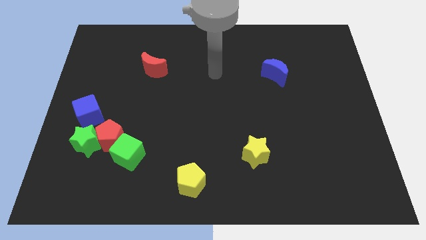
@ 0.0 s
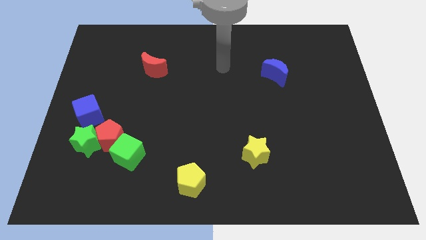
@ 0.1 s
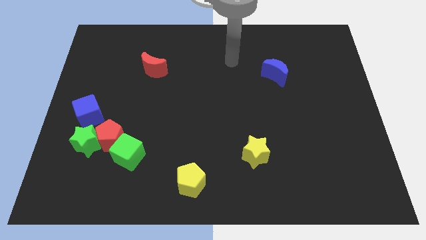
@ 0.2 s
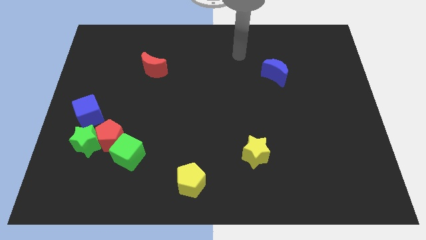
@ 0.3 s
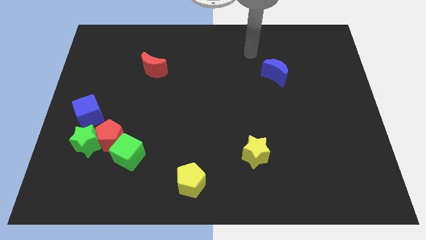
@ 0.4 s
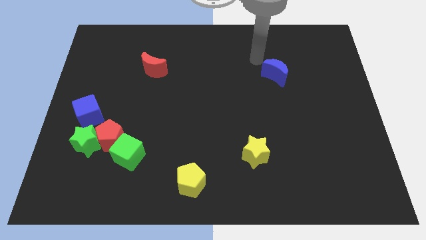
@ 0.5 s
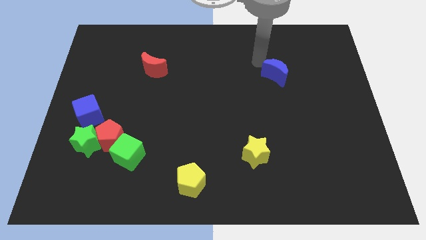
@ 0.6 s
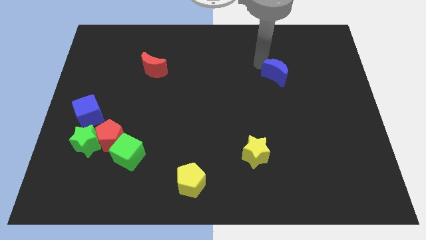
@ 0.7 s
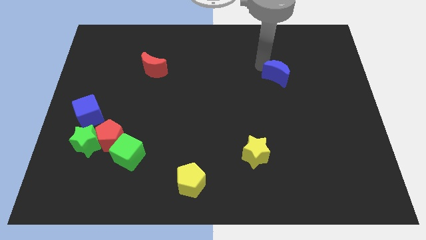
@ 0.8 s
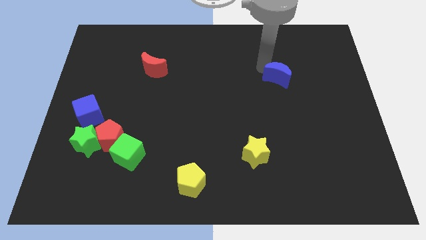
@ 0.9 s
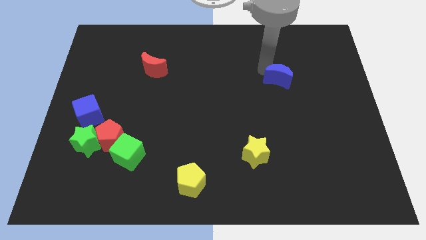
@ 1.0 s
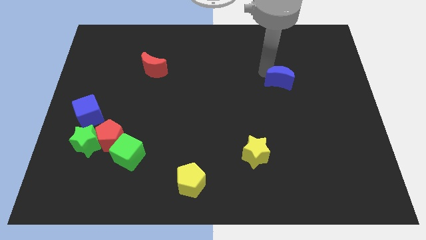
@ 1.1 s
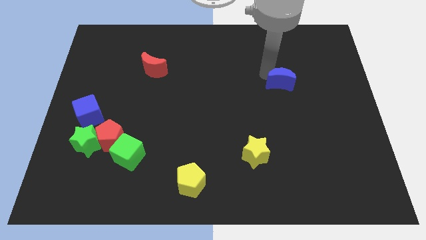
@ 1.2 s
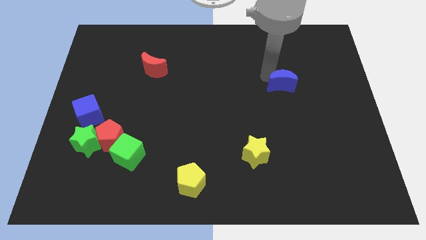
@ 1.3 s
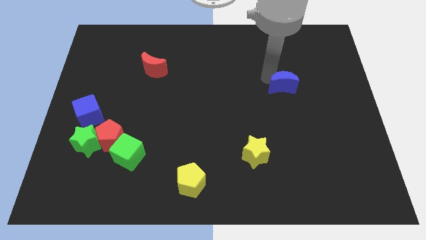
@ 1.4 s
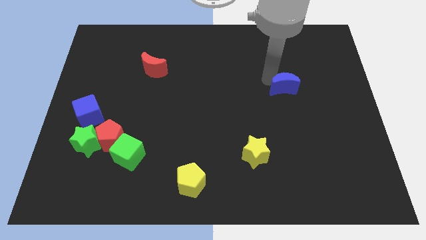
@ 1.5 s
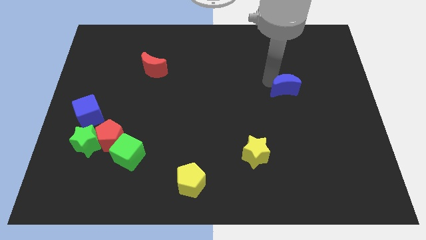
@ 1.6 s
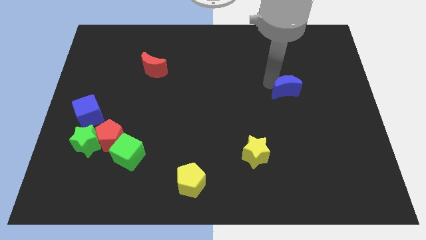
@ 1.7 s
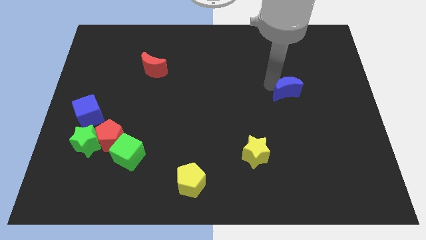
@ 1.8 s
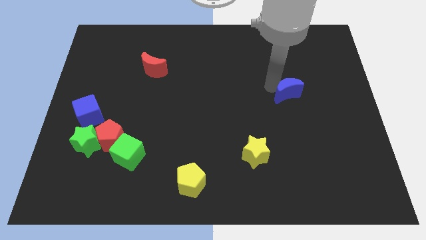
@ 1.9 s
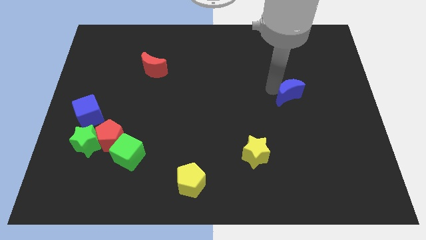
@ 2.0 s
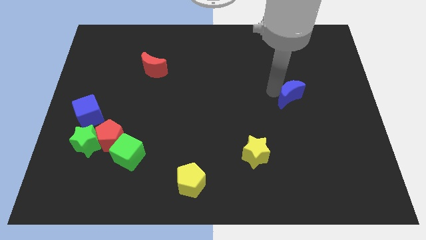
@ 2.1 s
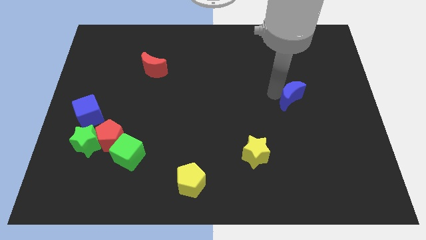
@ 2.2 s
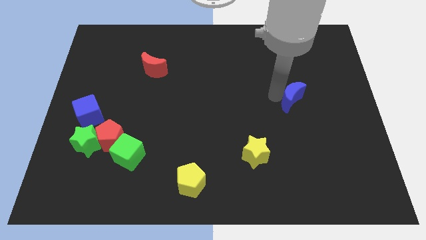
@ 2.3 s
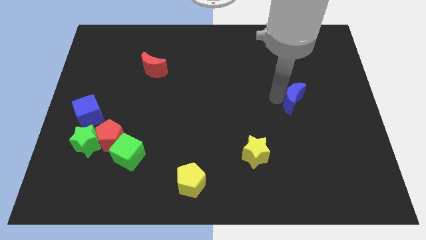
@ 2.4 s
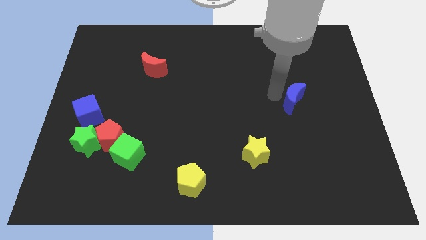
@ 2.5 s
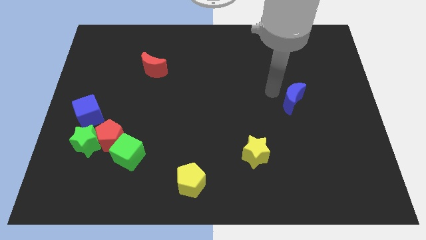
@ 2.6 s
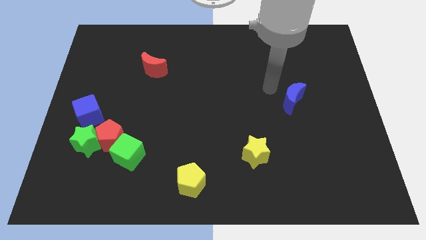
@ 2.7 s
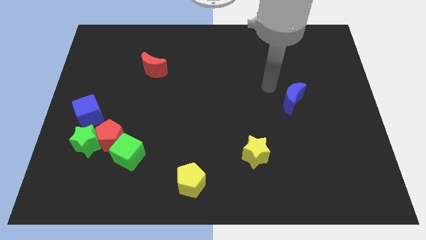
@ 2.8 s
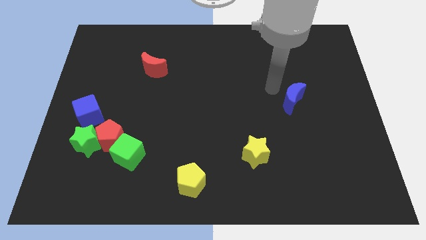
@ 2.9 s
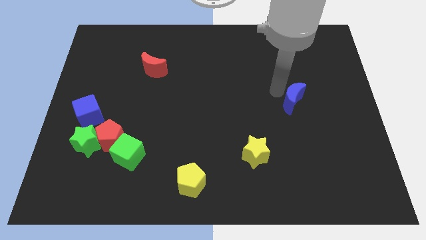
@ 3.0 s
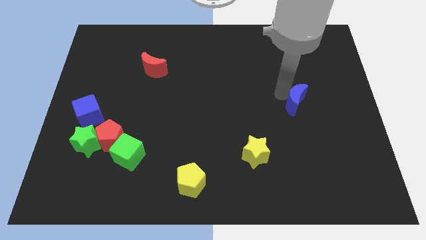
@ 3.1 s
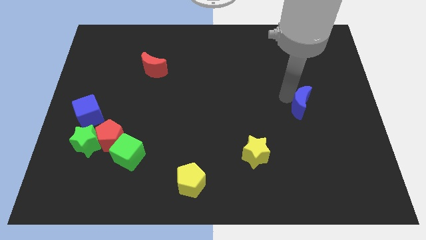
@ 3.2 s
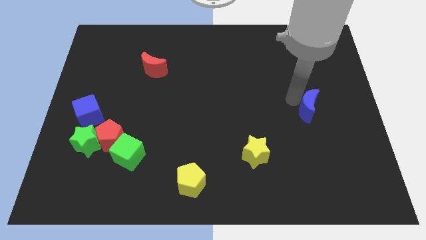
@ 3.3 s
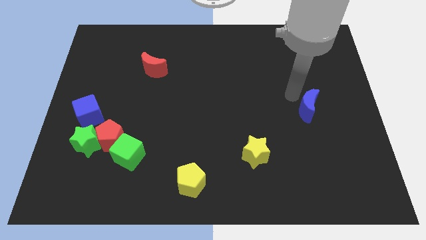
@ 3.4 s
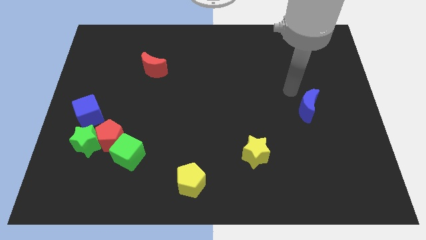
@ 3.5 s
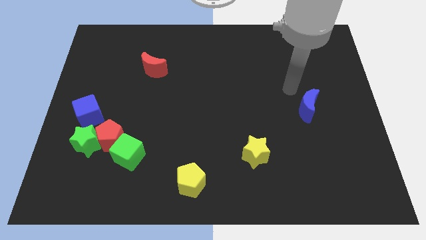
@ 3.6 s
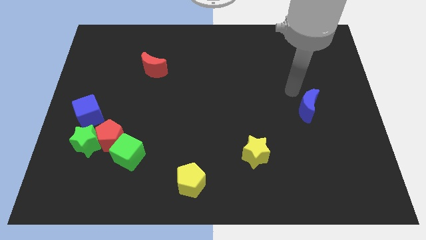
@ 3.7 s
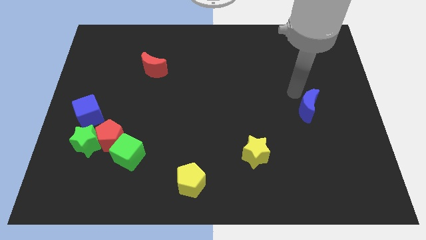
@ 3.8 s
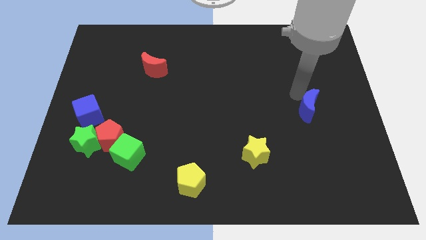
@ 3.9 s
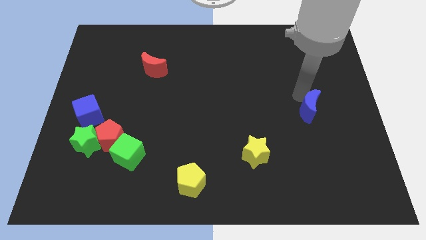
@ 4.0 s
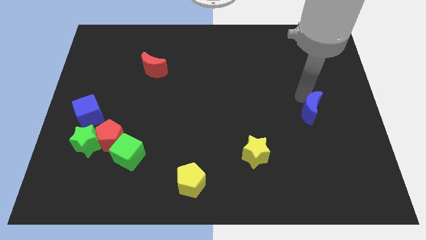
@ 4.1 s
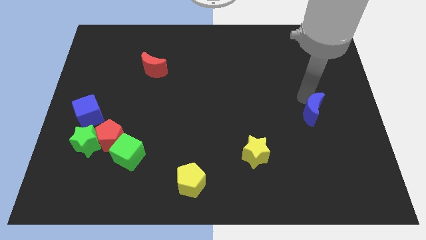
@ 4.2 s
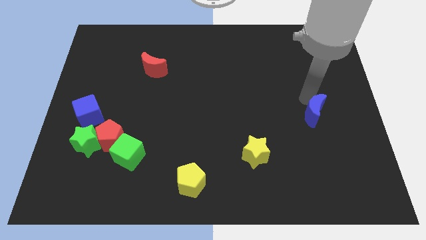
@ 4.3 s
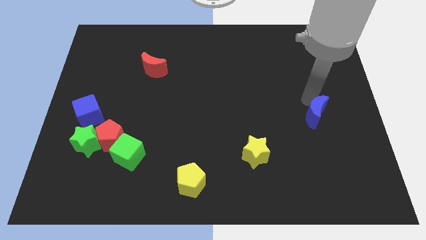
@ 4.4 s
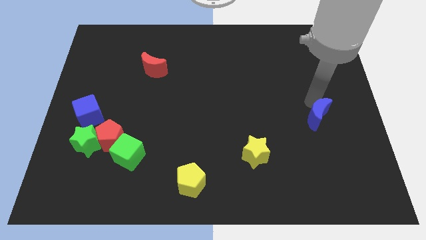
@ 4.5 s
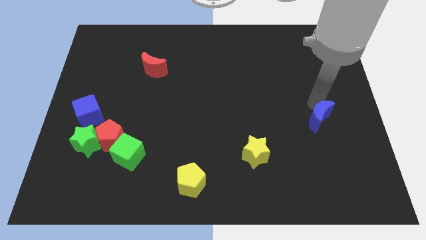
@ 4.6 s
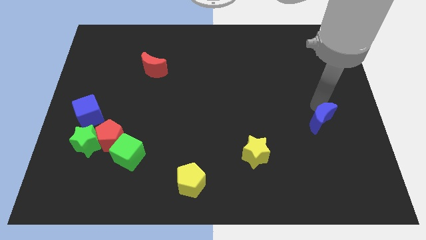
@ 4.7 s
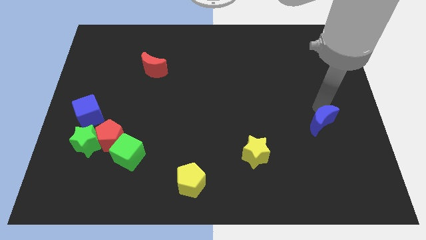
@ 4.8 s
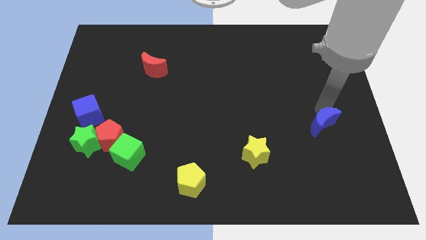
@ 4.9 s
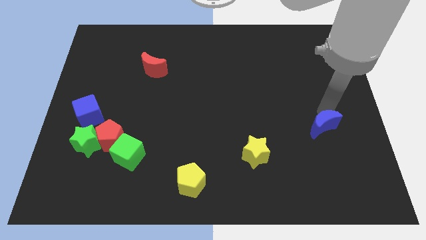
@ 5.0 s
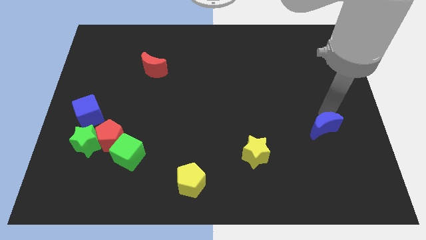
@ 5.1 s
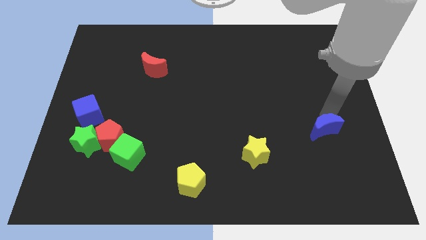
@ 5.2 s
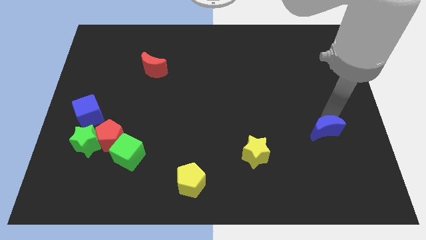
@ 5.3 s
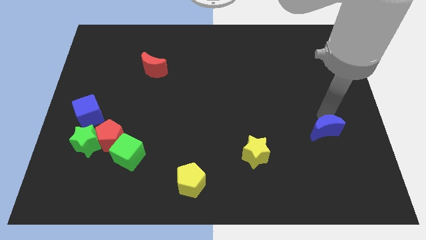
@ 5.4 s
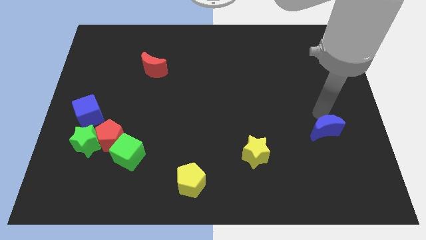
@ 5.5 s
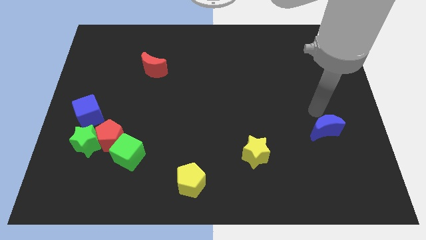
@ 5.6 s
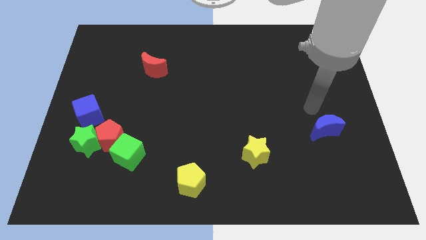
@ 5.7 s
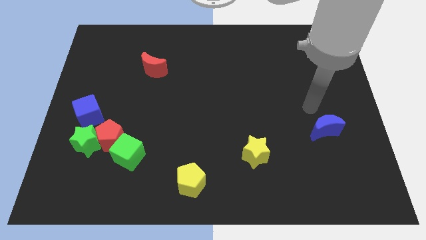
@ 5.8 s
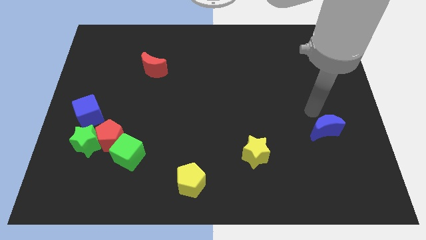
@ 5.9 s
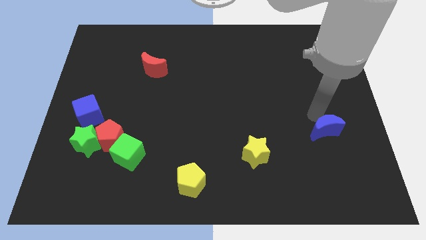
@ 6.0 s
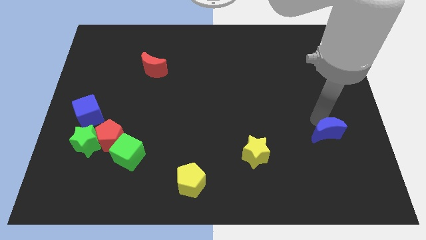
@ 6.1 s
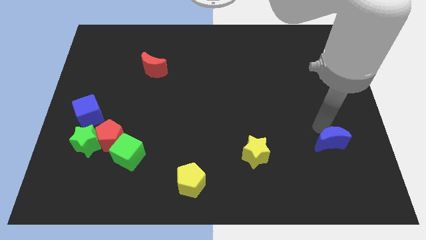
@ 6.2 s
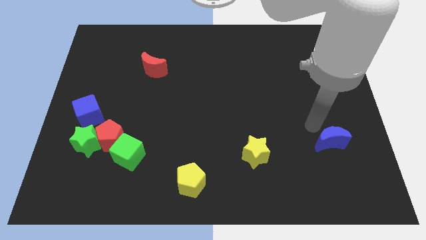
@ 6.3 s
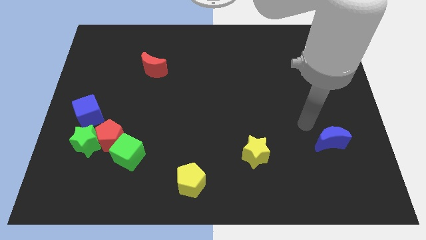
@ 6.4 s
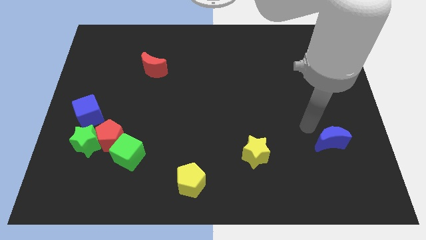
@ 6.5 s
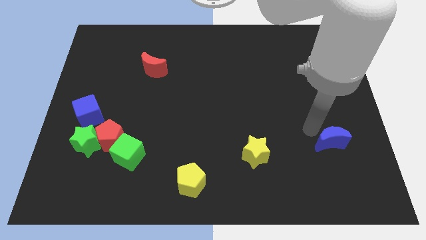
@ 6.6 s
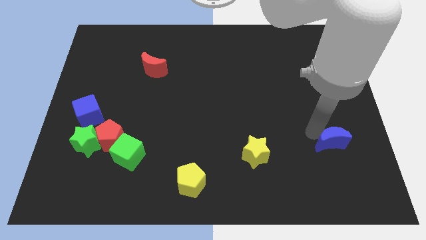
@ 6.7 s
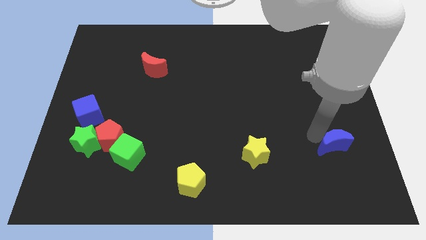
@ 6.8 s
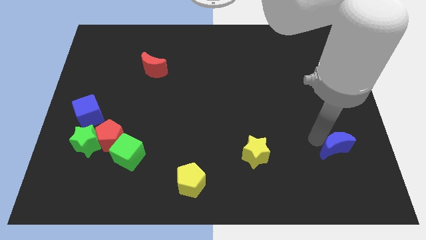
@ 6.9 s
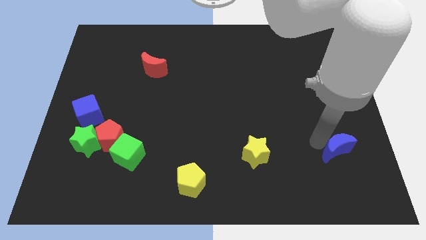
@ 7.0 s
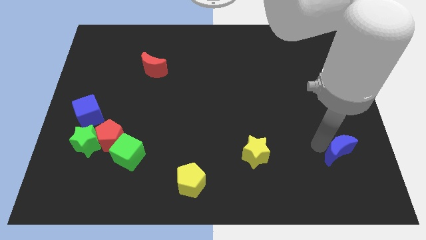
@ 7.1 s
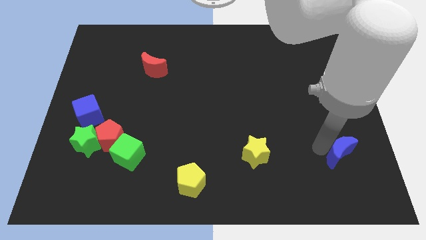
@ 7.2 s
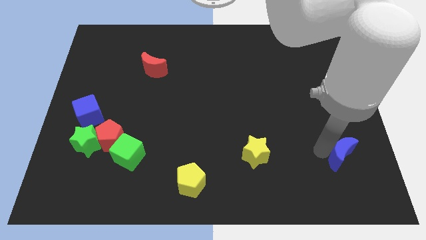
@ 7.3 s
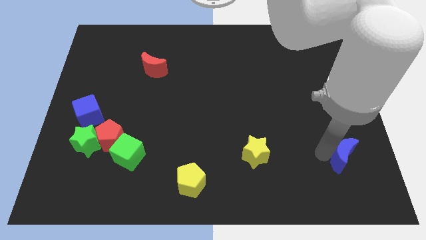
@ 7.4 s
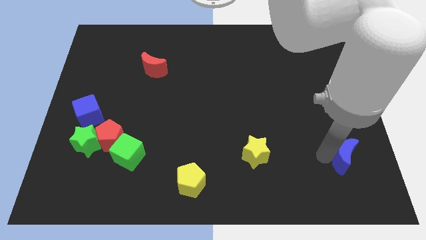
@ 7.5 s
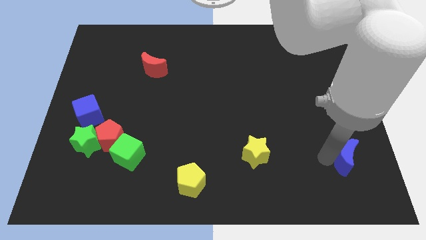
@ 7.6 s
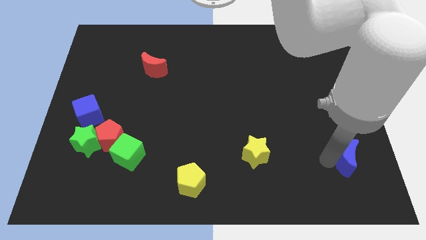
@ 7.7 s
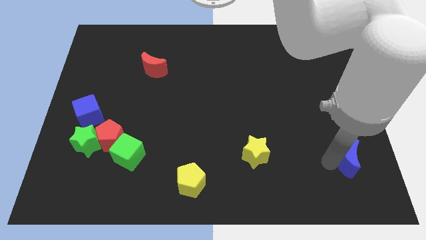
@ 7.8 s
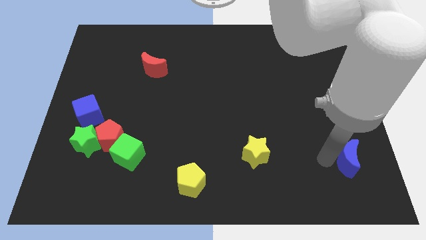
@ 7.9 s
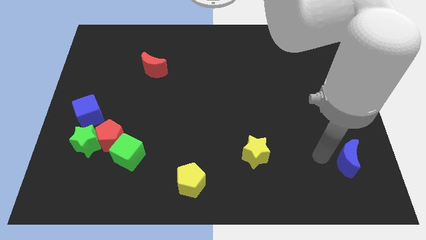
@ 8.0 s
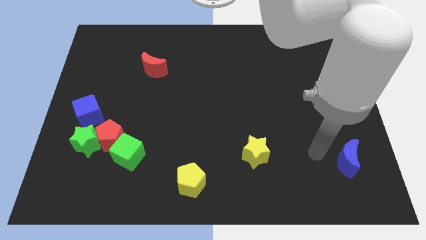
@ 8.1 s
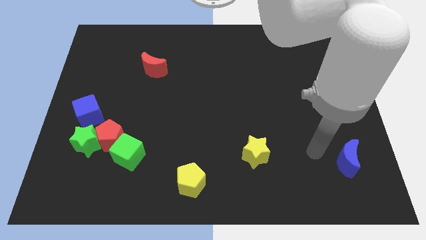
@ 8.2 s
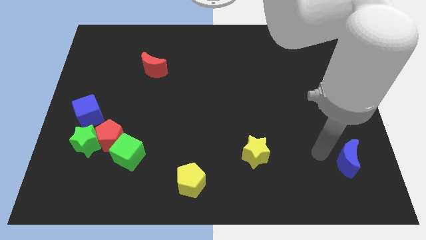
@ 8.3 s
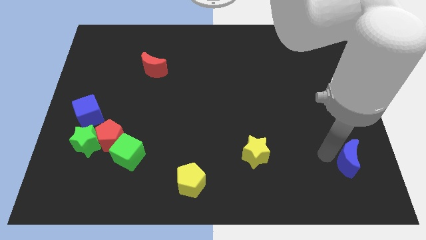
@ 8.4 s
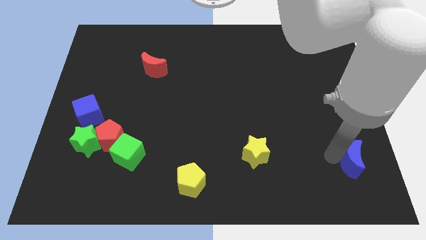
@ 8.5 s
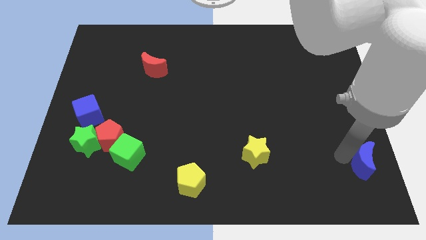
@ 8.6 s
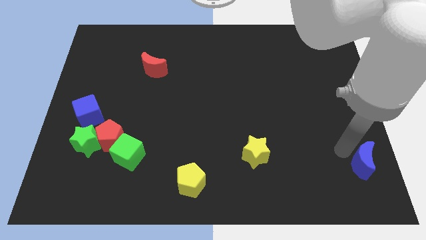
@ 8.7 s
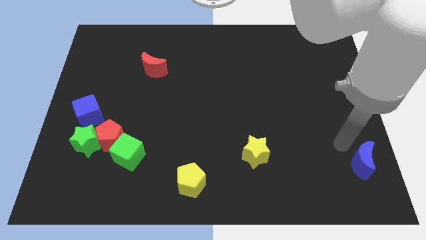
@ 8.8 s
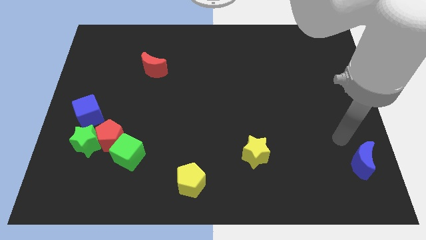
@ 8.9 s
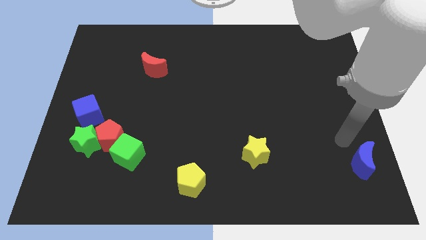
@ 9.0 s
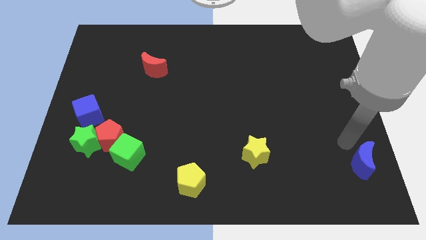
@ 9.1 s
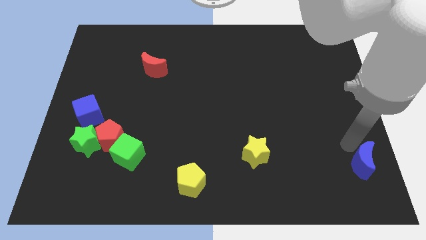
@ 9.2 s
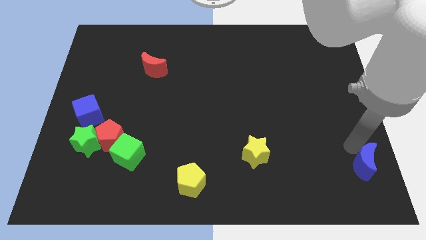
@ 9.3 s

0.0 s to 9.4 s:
put the blue moon to the bottom right corner
